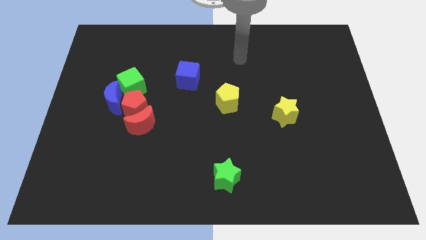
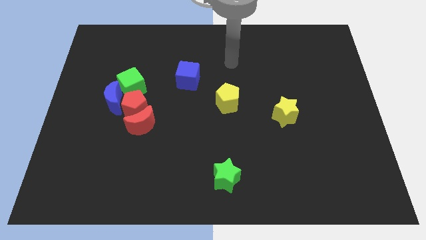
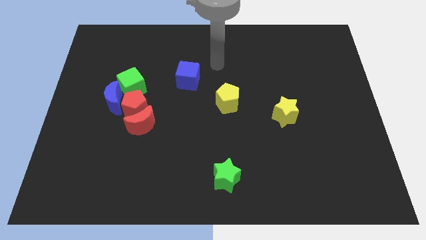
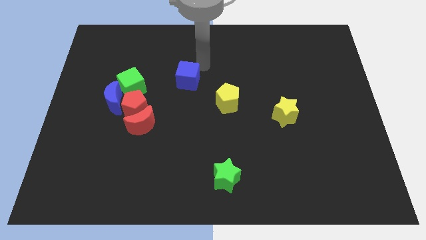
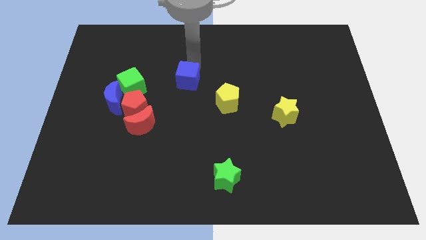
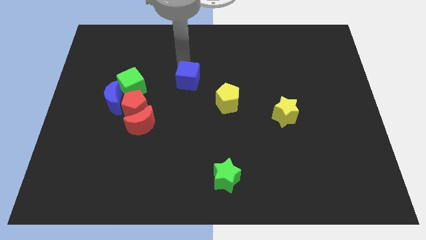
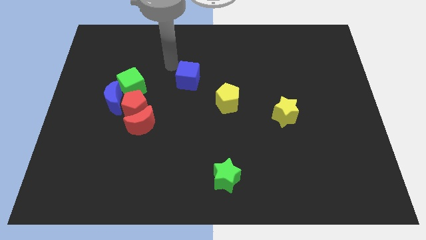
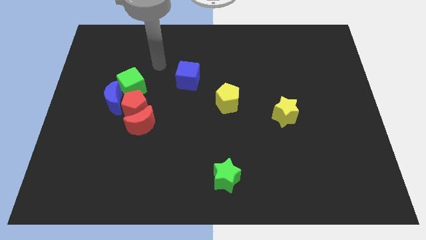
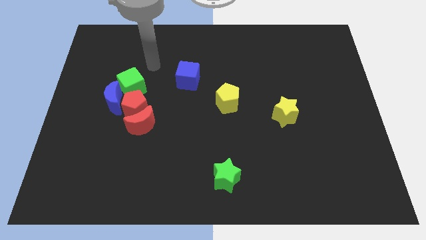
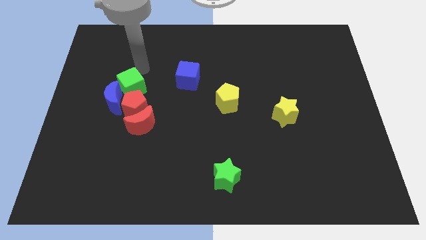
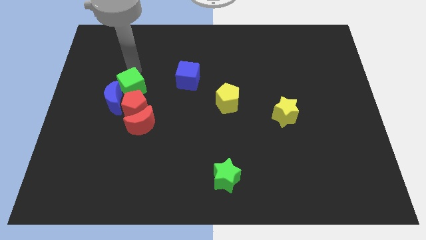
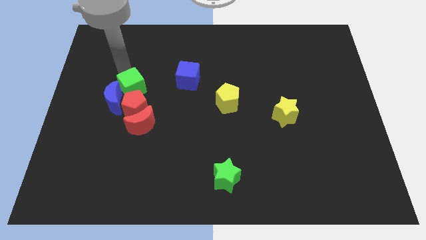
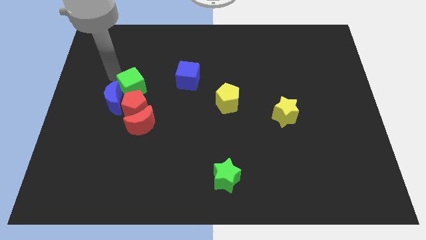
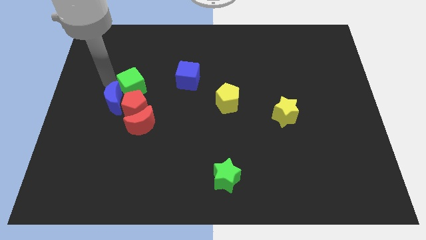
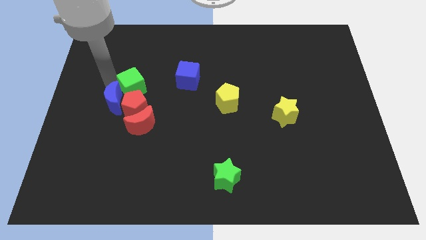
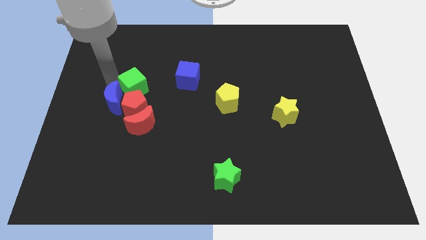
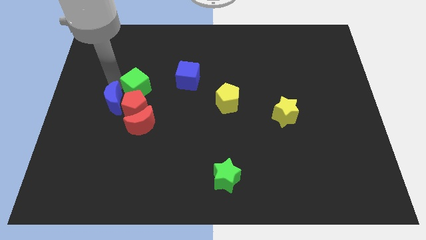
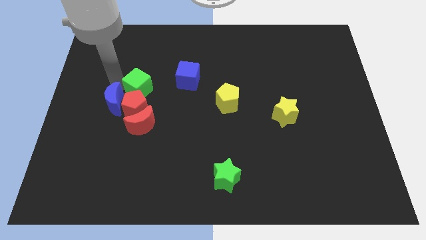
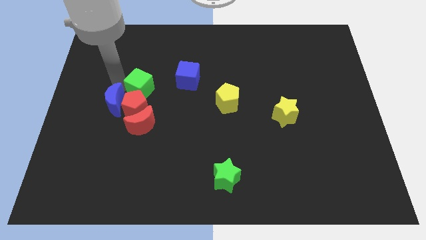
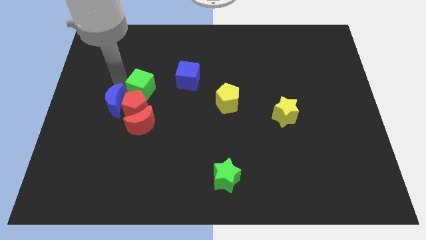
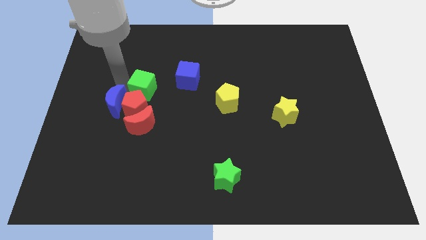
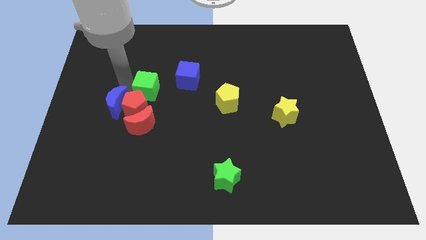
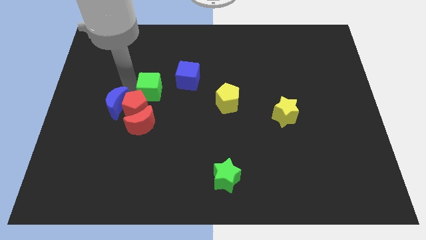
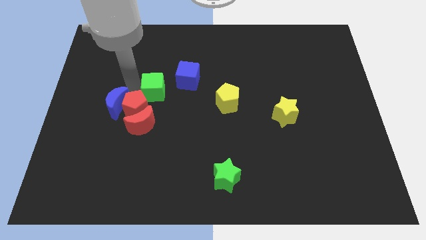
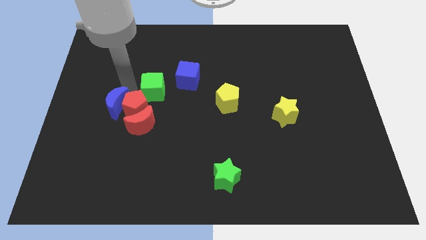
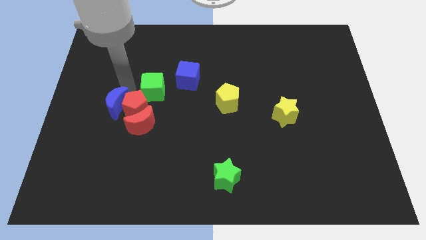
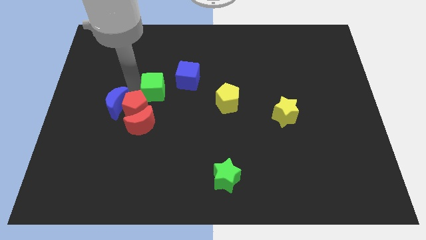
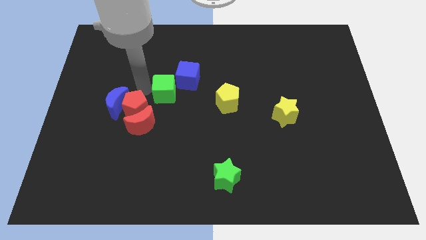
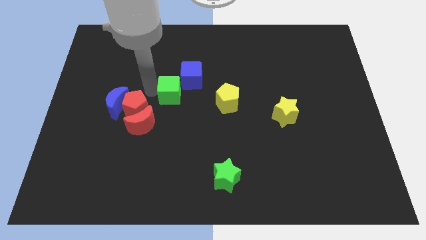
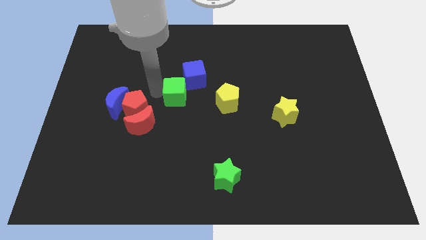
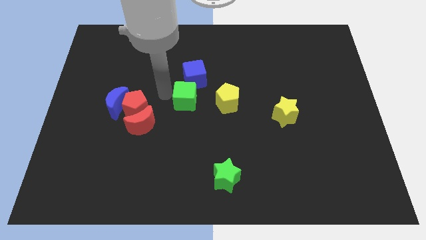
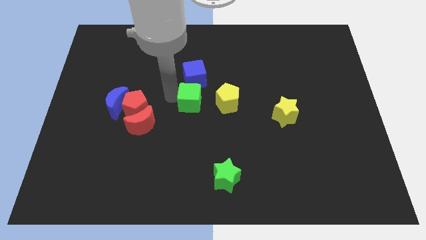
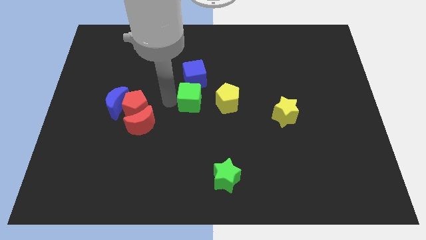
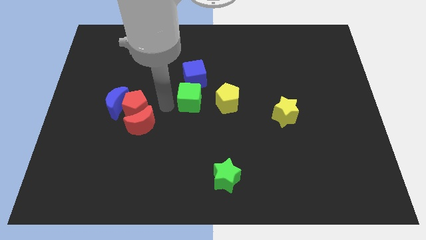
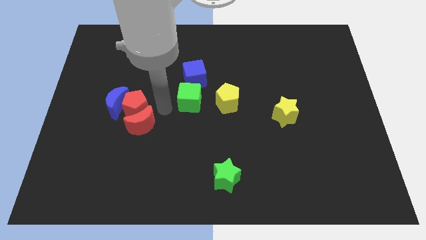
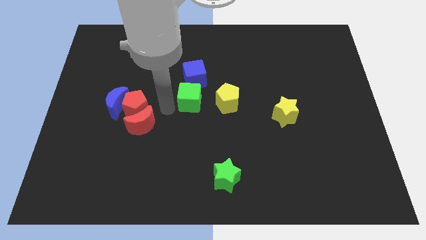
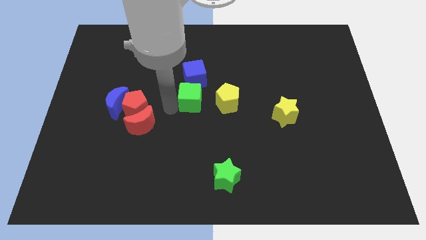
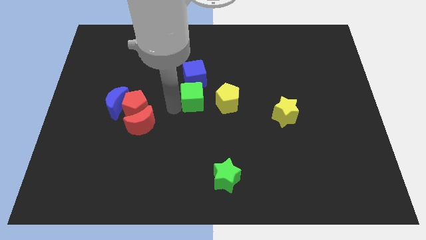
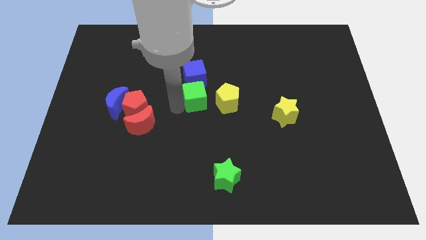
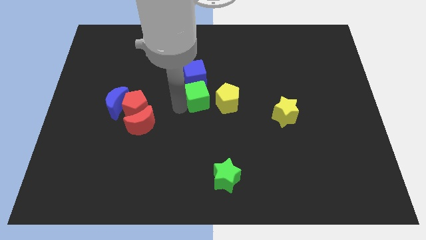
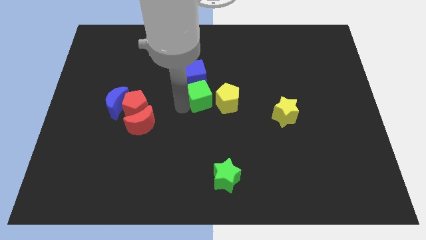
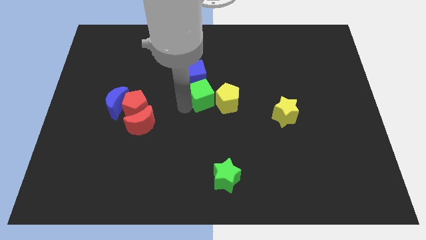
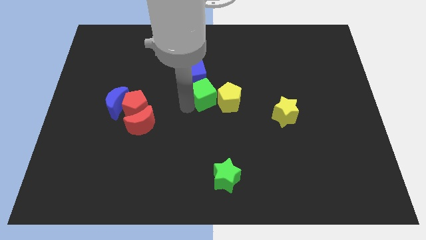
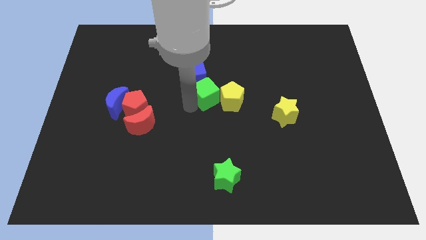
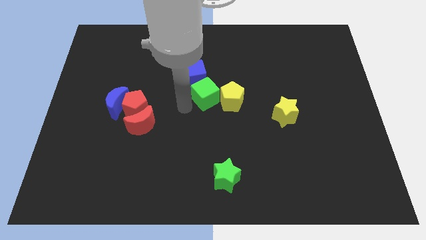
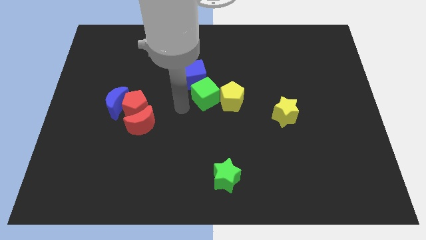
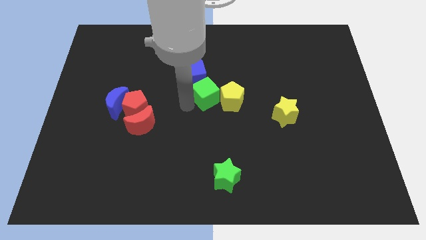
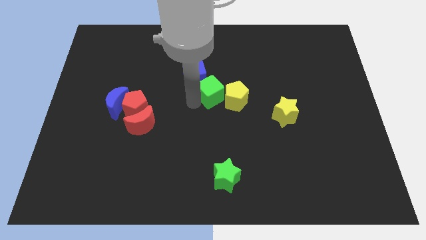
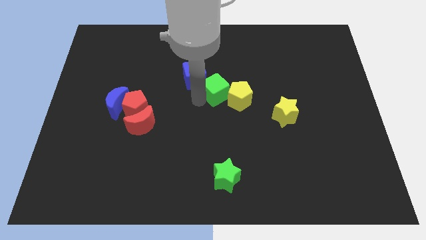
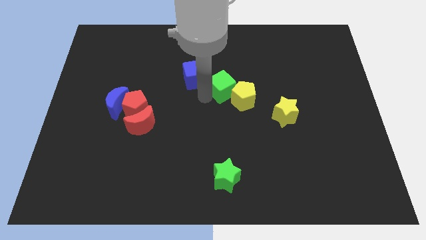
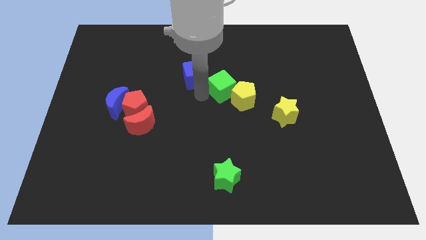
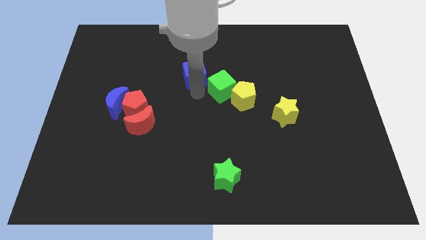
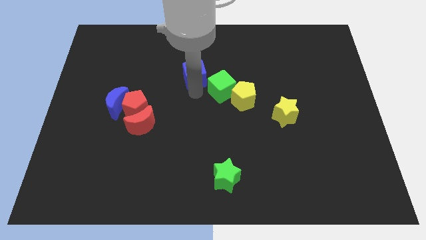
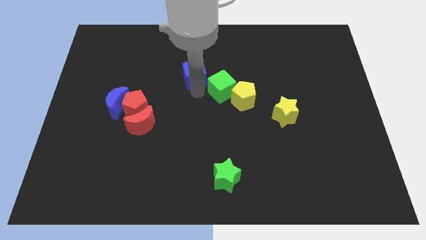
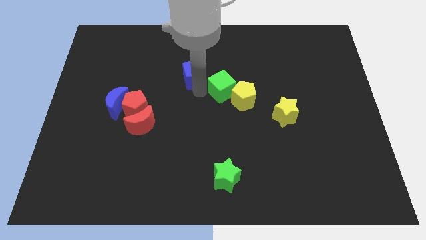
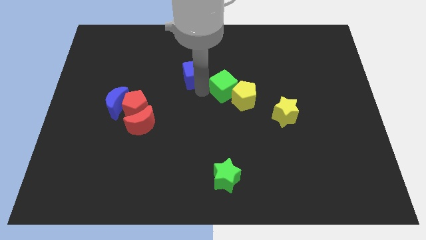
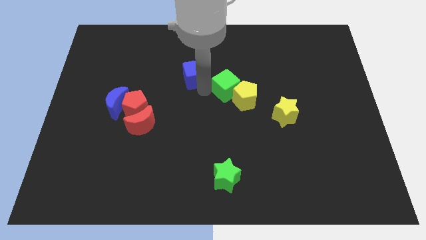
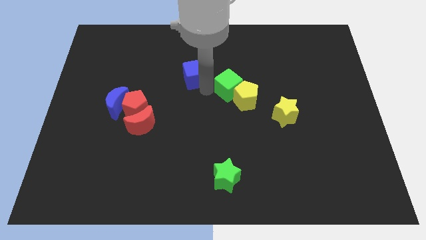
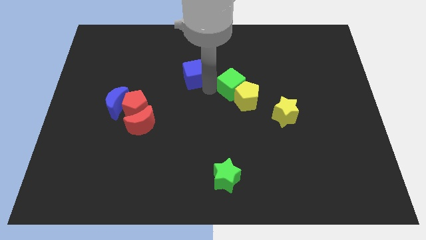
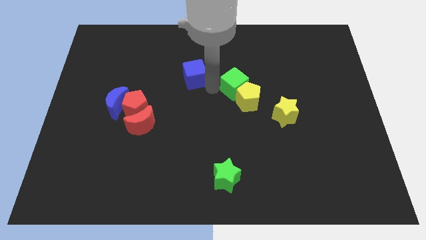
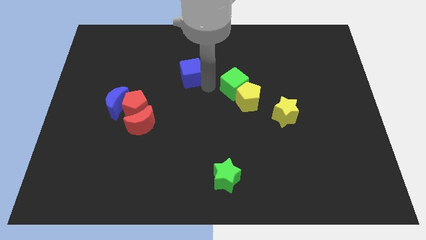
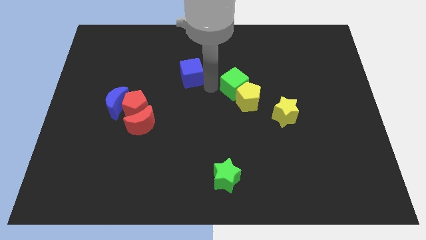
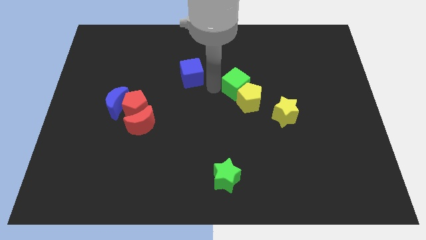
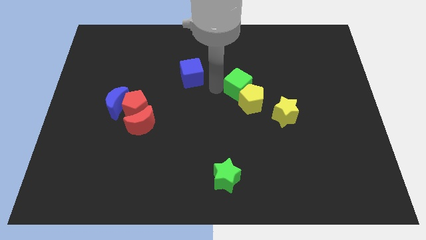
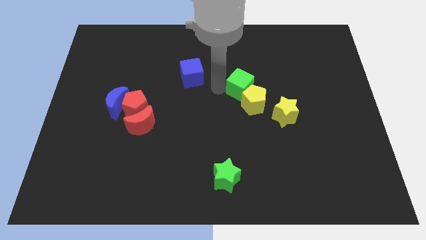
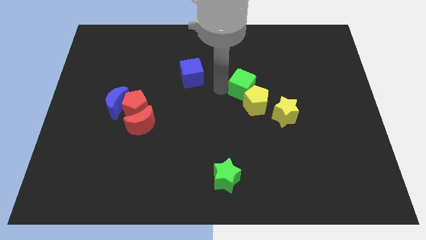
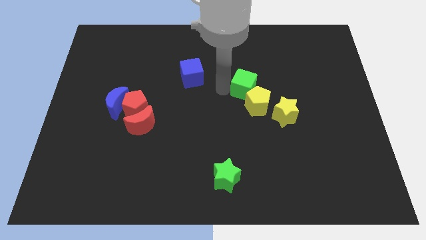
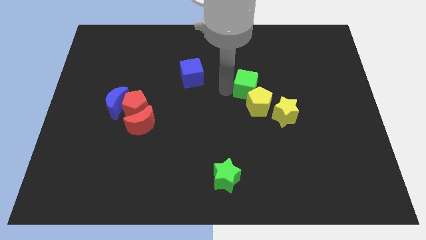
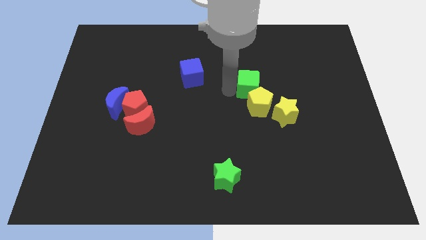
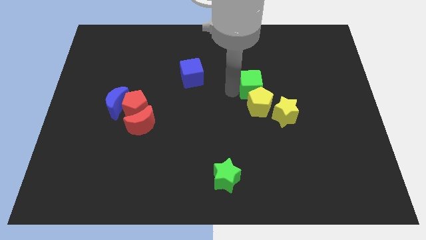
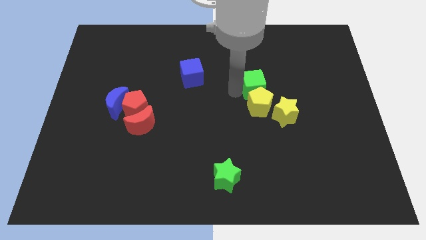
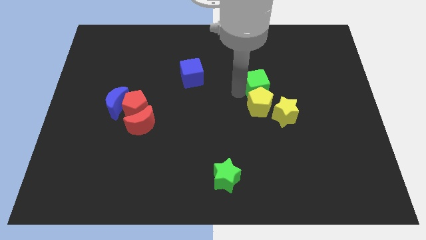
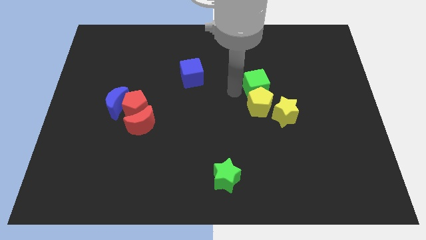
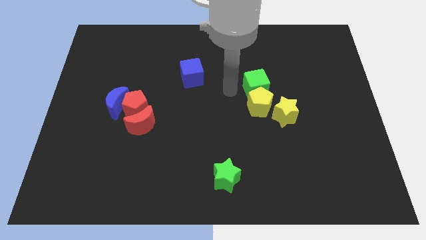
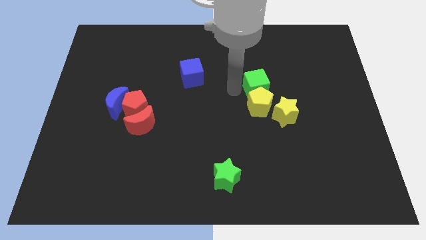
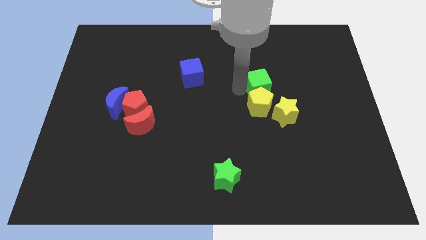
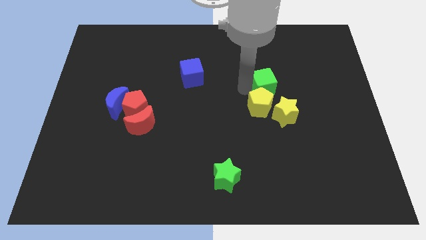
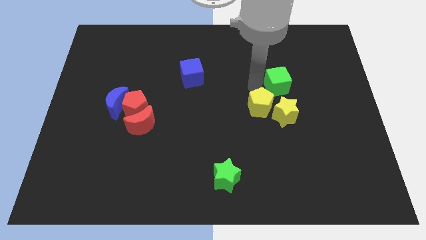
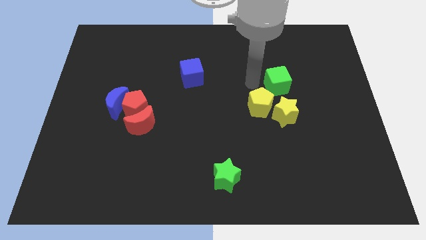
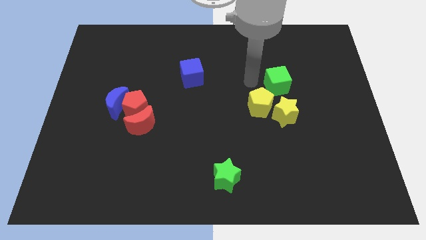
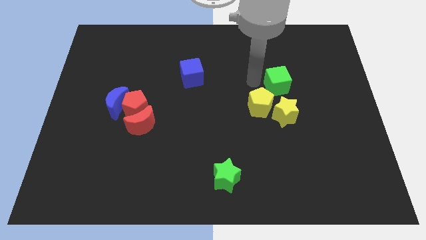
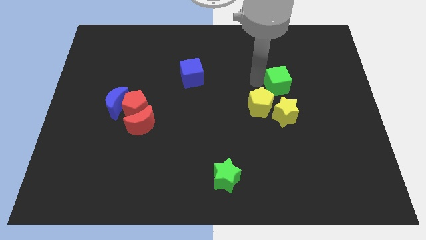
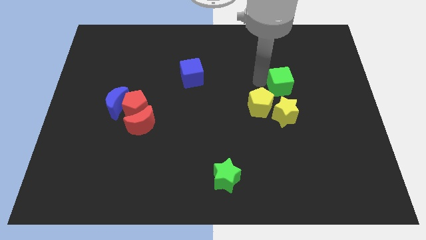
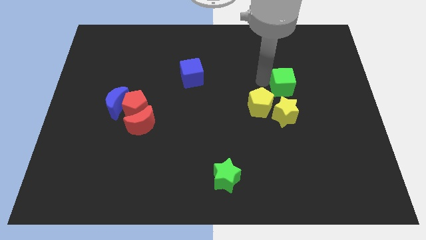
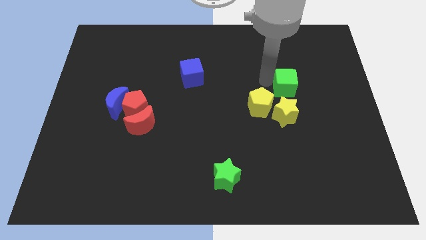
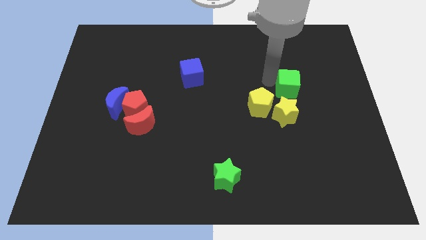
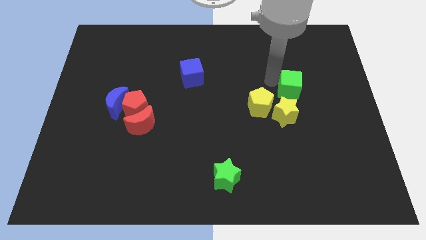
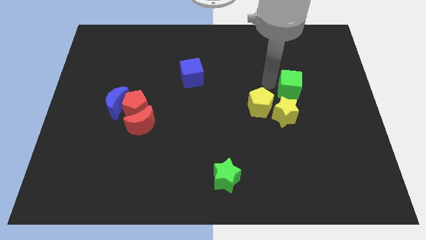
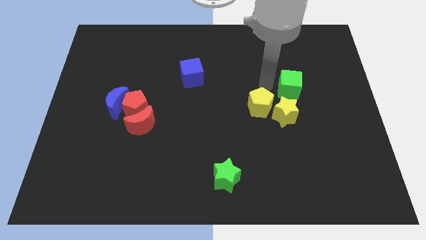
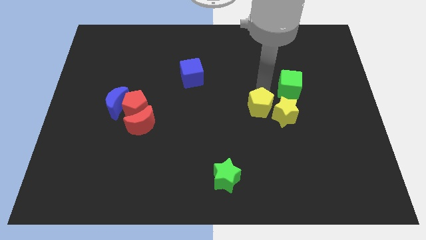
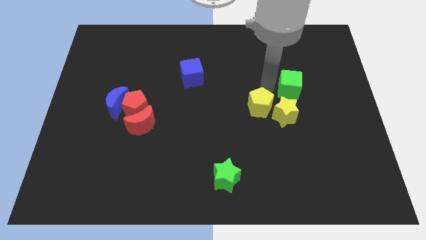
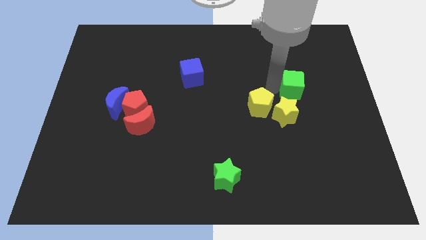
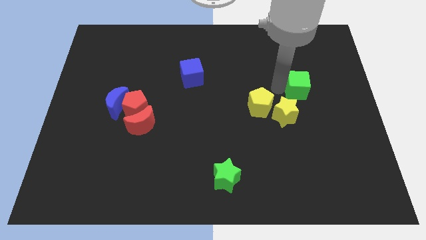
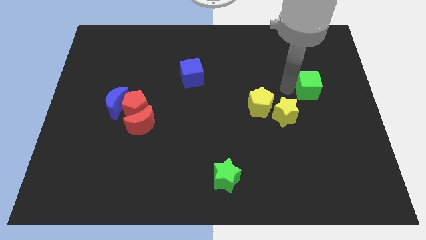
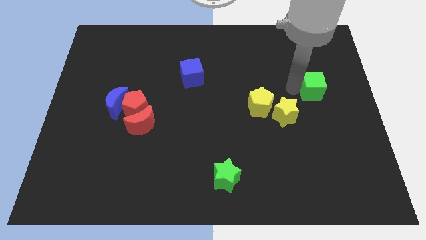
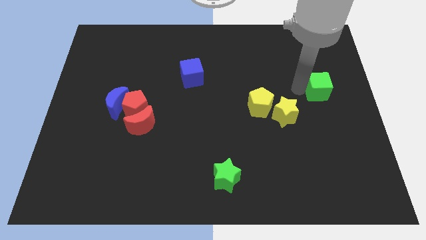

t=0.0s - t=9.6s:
put the green cube to the right side
